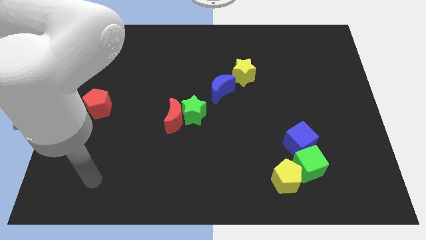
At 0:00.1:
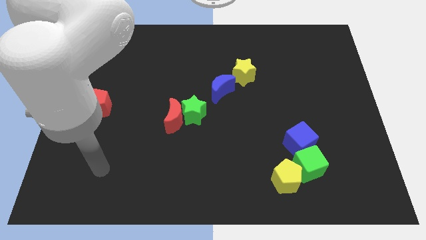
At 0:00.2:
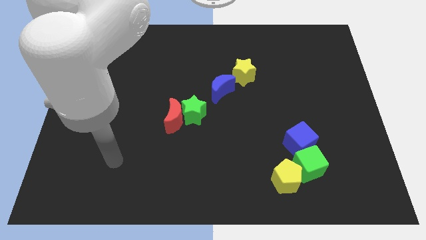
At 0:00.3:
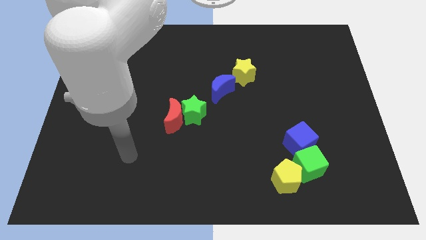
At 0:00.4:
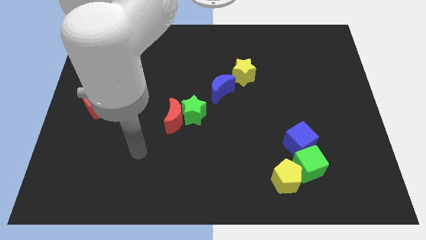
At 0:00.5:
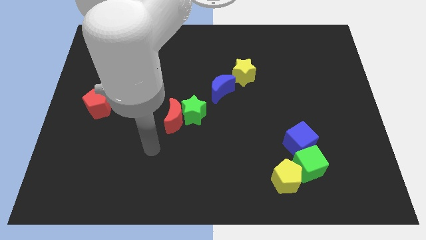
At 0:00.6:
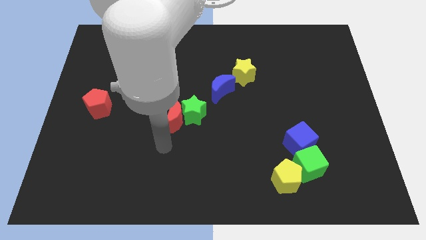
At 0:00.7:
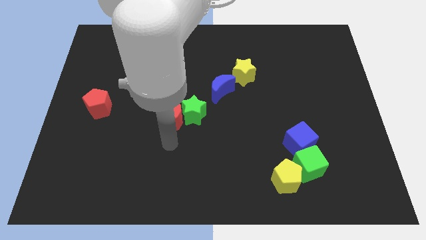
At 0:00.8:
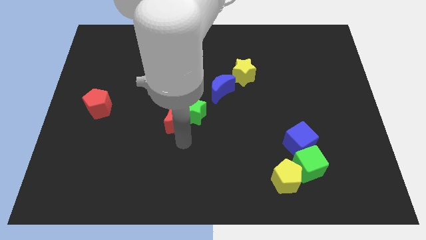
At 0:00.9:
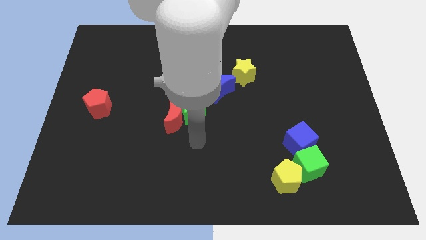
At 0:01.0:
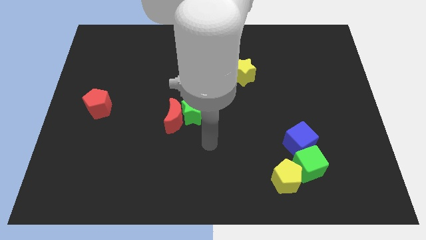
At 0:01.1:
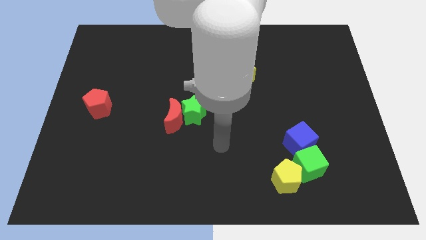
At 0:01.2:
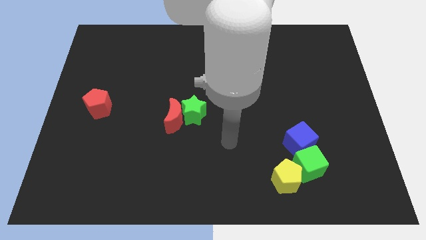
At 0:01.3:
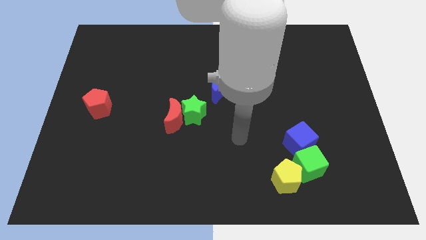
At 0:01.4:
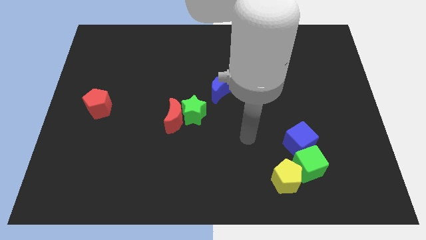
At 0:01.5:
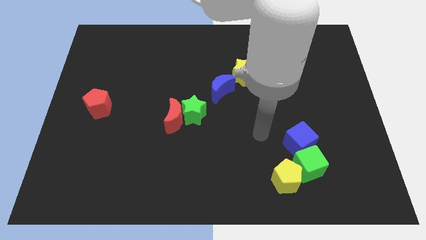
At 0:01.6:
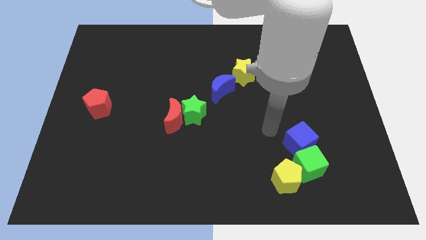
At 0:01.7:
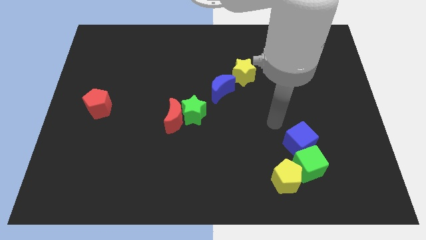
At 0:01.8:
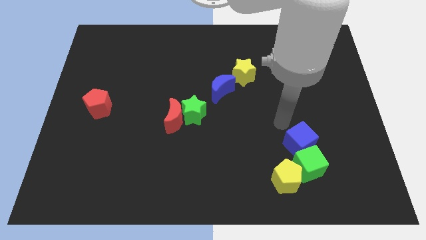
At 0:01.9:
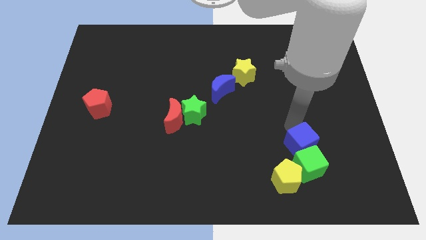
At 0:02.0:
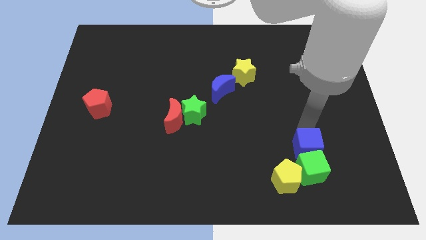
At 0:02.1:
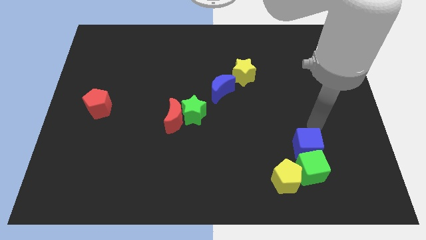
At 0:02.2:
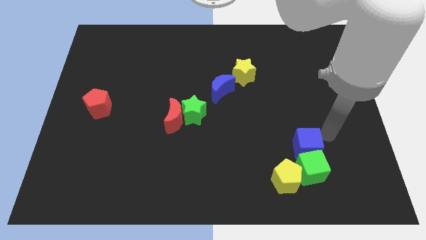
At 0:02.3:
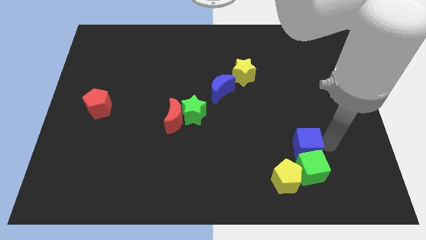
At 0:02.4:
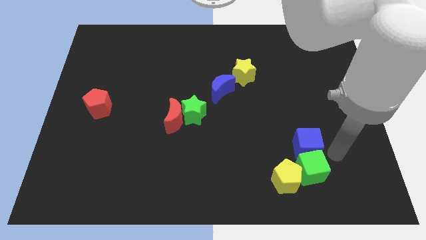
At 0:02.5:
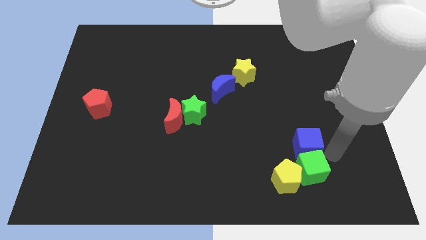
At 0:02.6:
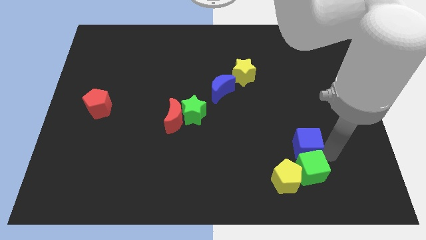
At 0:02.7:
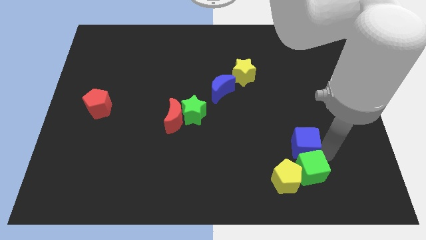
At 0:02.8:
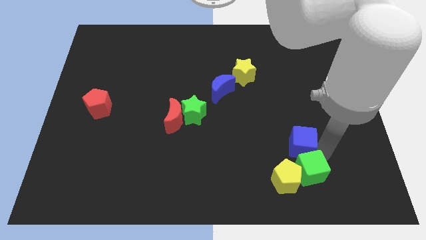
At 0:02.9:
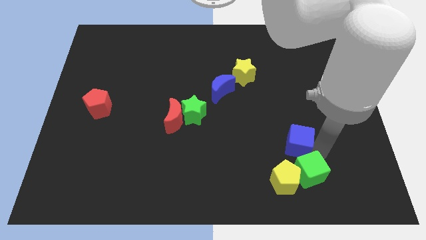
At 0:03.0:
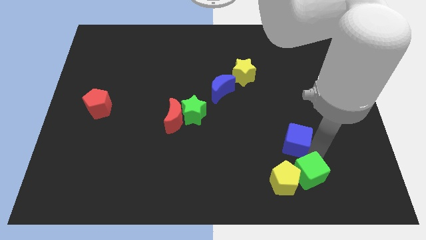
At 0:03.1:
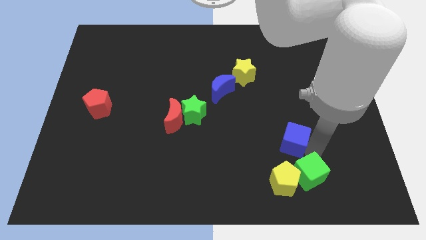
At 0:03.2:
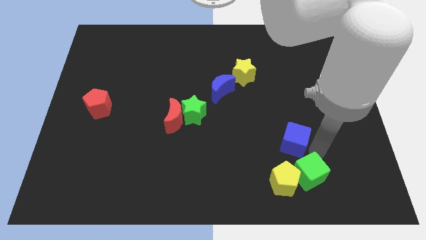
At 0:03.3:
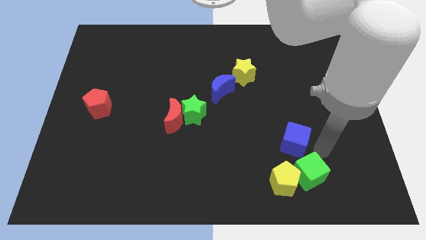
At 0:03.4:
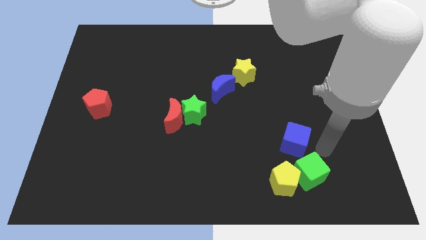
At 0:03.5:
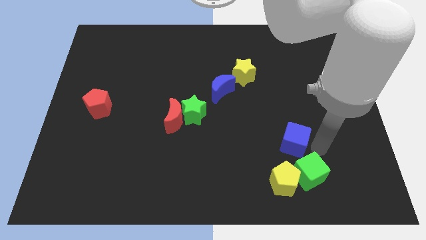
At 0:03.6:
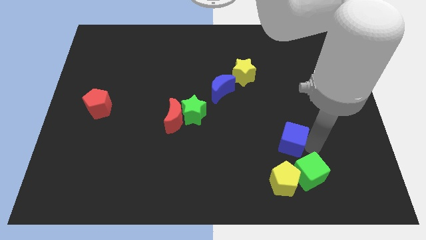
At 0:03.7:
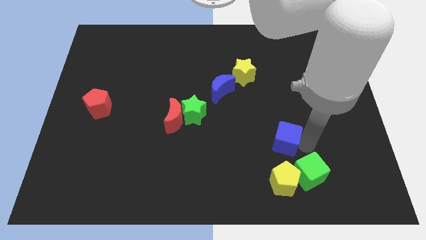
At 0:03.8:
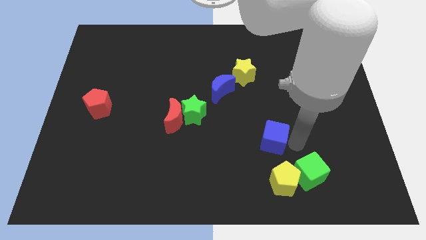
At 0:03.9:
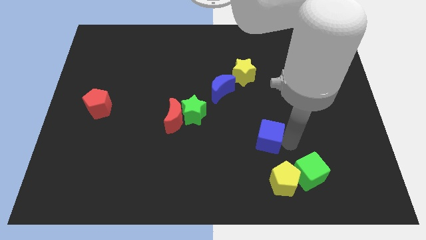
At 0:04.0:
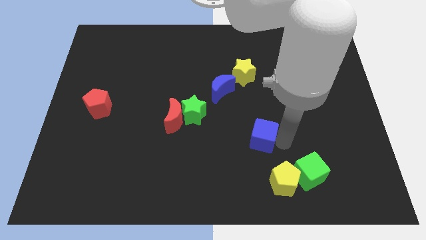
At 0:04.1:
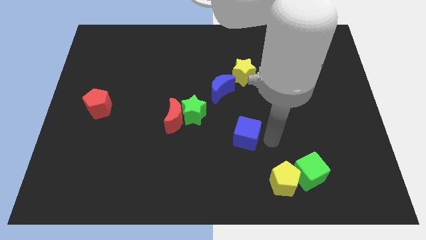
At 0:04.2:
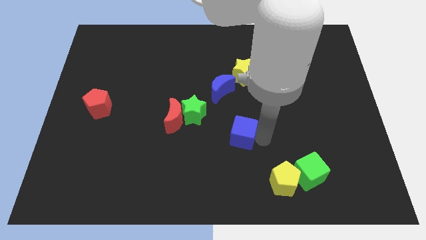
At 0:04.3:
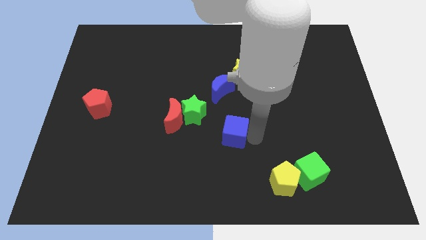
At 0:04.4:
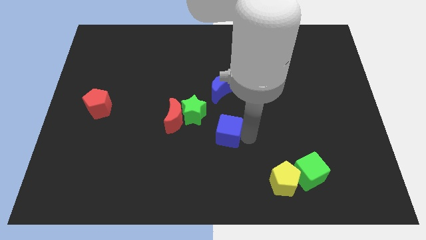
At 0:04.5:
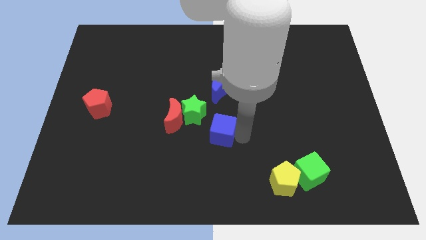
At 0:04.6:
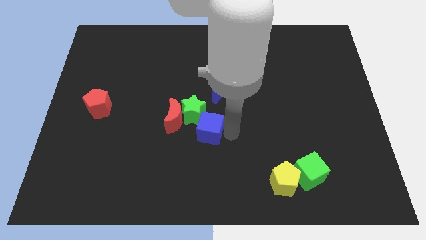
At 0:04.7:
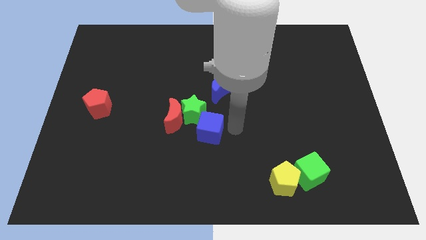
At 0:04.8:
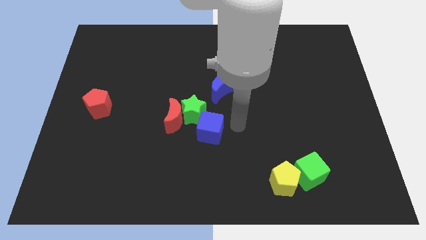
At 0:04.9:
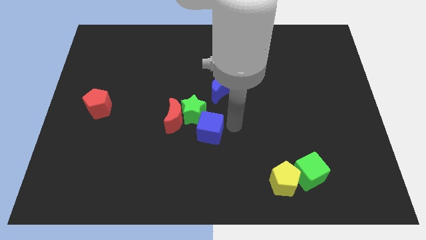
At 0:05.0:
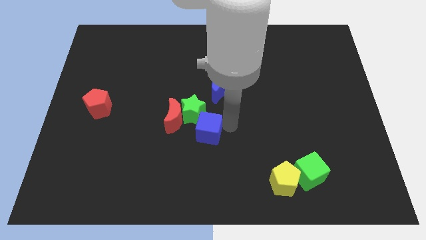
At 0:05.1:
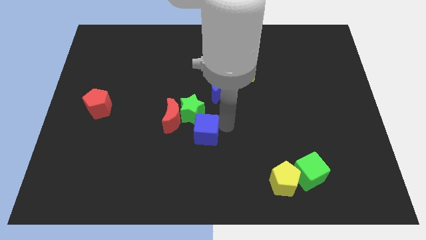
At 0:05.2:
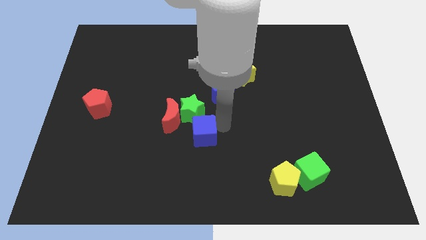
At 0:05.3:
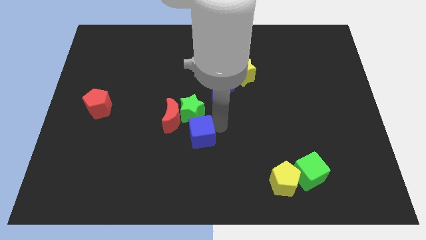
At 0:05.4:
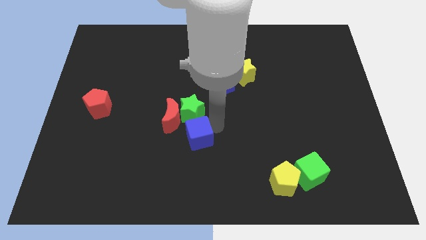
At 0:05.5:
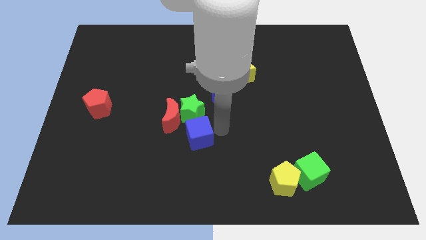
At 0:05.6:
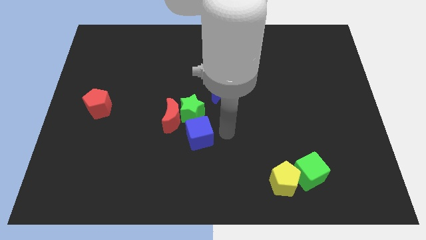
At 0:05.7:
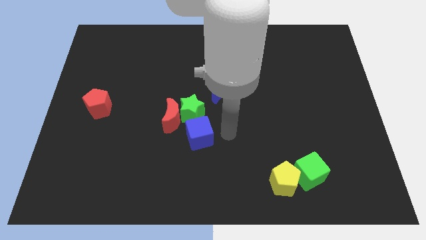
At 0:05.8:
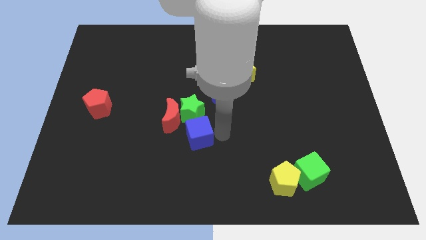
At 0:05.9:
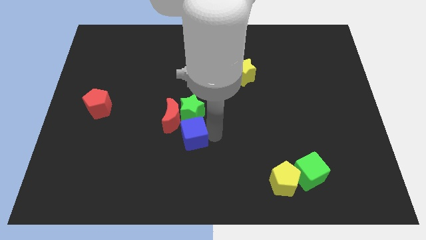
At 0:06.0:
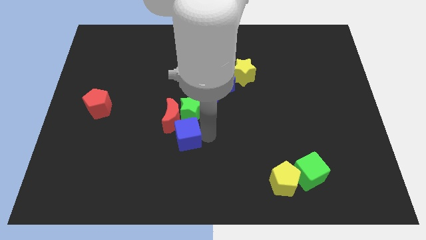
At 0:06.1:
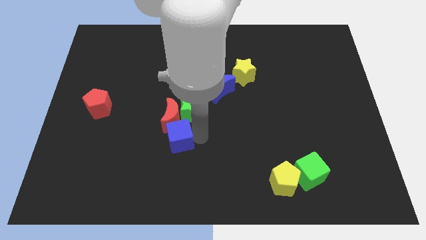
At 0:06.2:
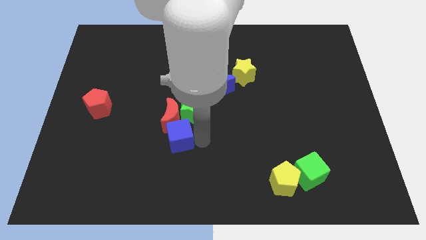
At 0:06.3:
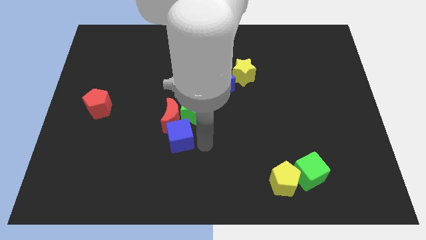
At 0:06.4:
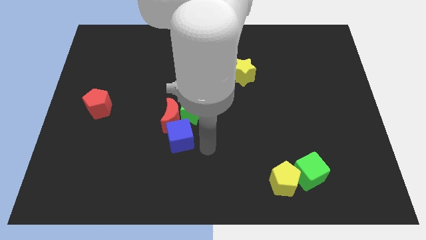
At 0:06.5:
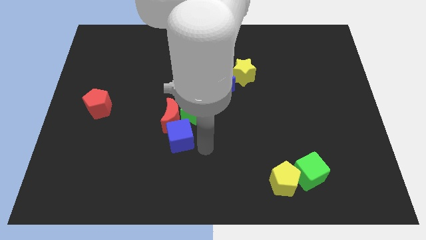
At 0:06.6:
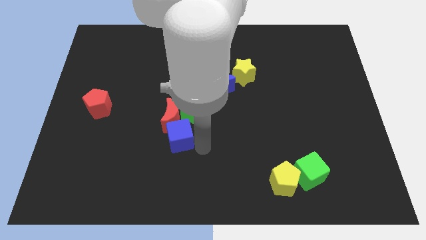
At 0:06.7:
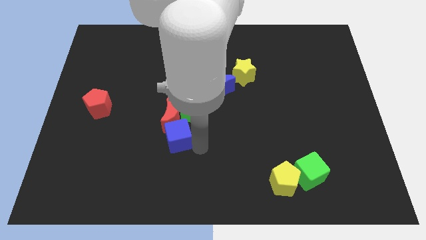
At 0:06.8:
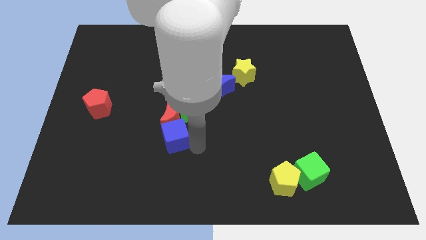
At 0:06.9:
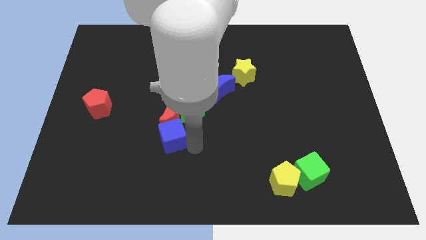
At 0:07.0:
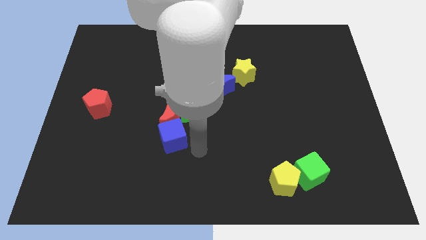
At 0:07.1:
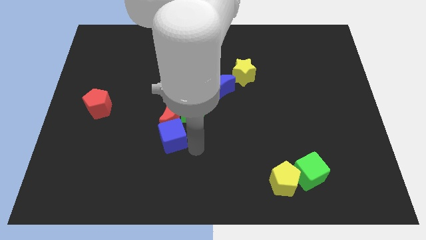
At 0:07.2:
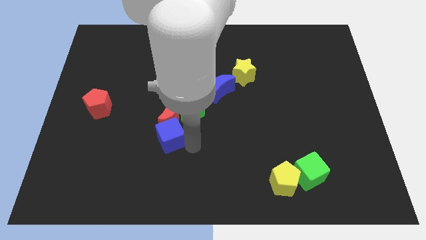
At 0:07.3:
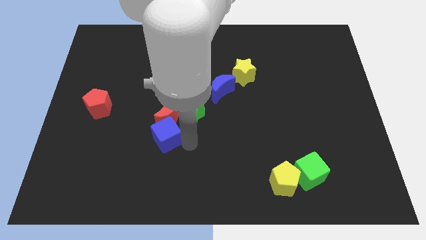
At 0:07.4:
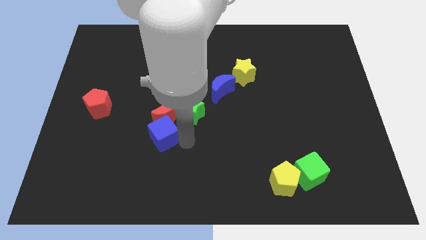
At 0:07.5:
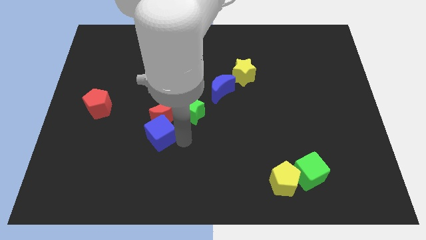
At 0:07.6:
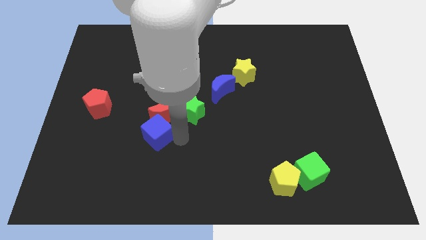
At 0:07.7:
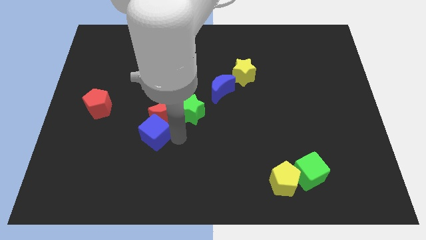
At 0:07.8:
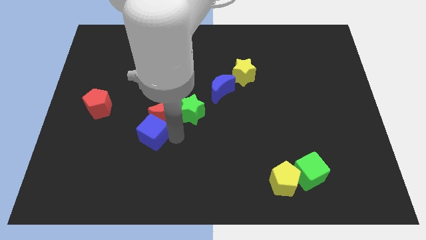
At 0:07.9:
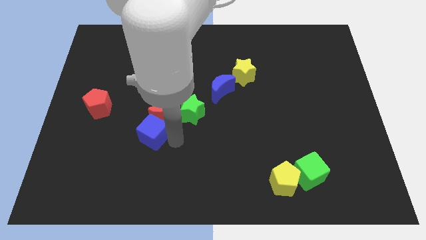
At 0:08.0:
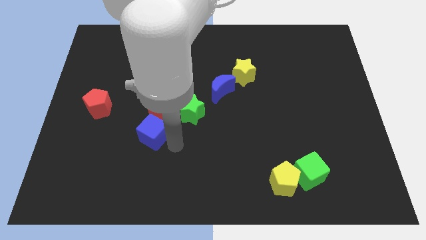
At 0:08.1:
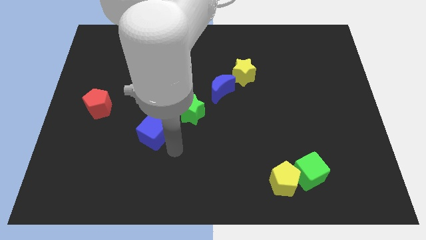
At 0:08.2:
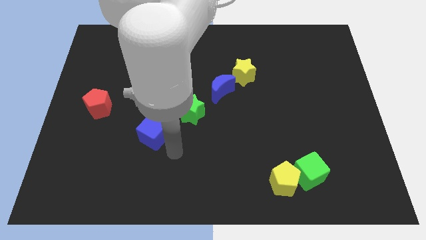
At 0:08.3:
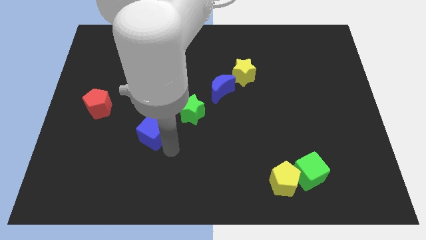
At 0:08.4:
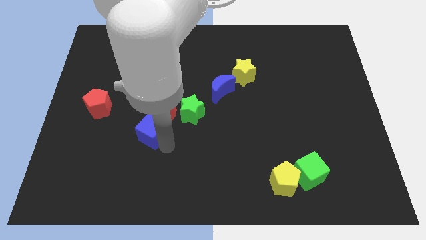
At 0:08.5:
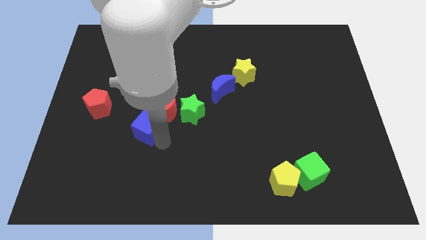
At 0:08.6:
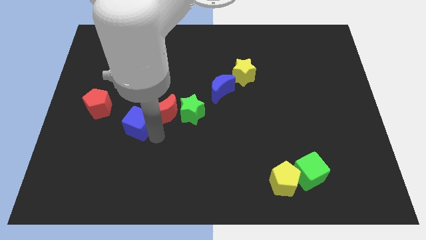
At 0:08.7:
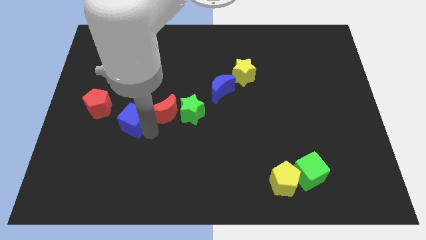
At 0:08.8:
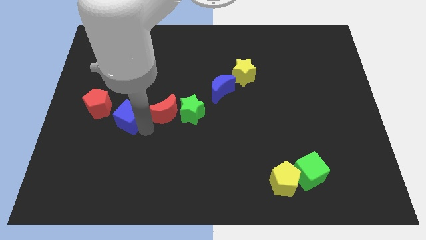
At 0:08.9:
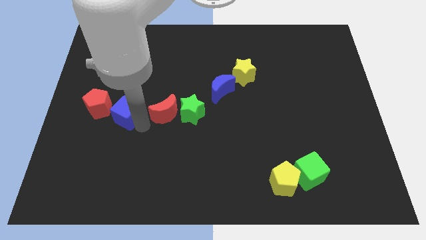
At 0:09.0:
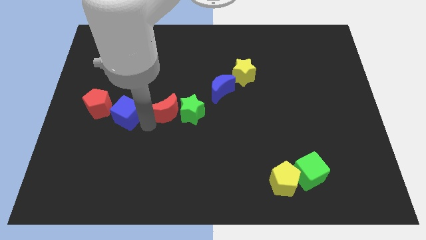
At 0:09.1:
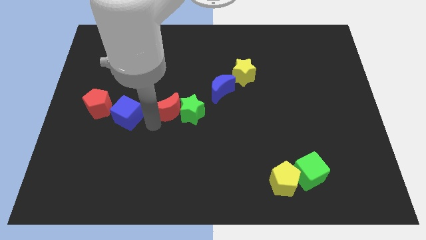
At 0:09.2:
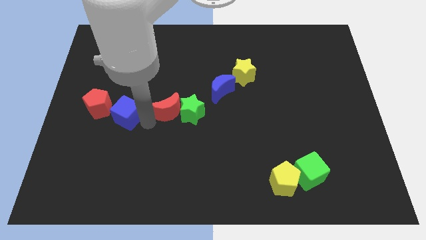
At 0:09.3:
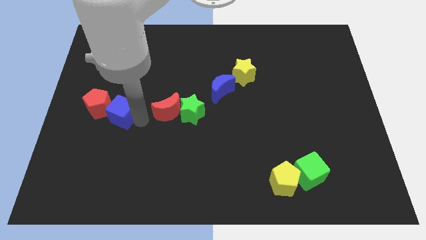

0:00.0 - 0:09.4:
put the blue cube towards the red pentagon
